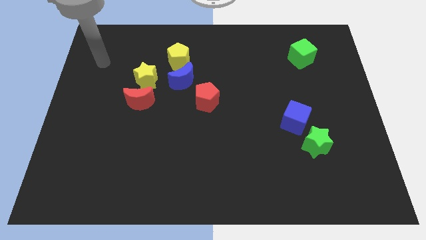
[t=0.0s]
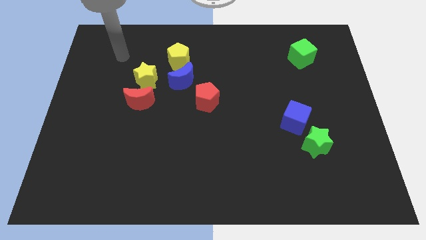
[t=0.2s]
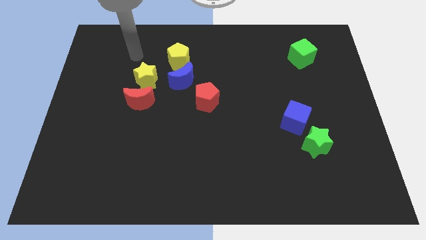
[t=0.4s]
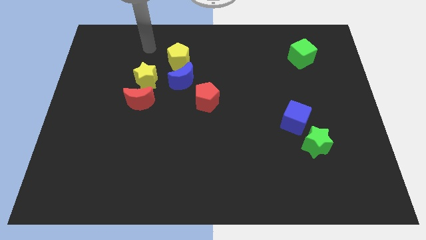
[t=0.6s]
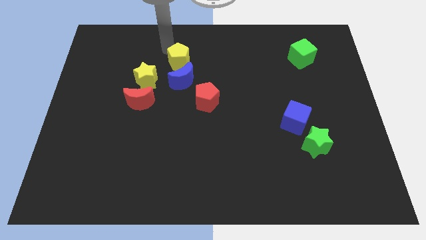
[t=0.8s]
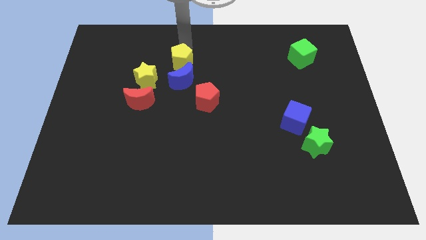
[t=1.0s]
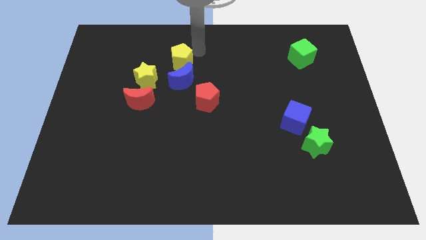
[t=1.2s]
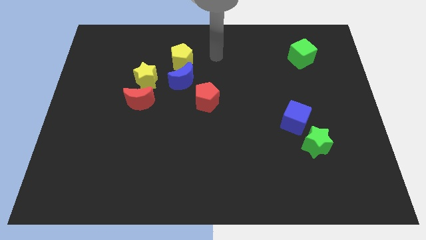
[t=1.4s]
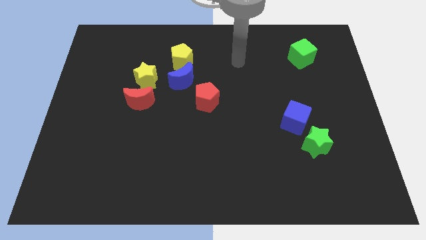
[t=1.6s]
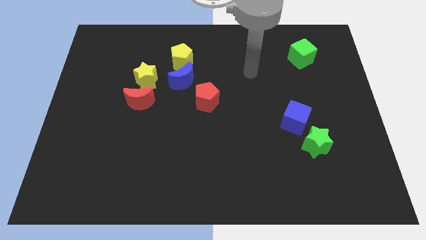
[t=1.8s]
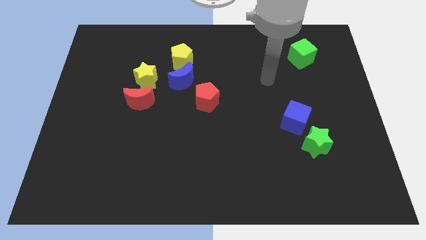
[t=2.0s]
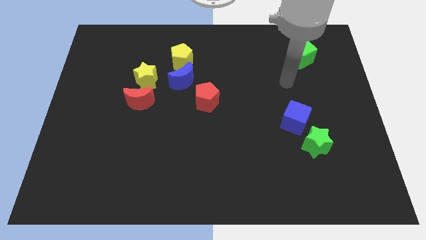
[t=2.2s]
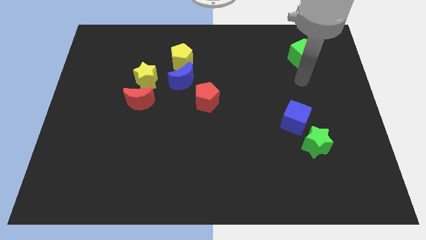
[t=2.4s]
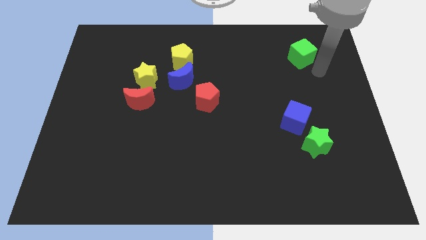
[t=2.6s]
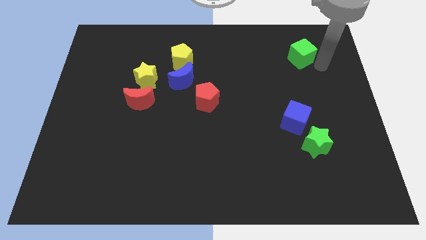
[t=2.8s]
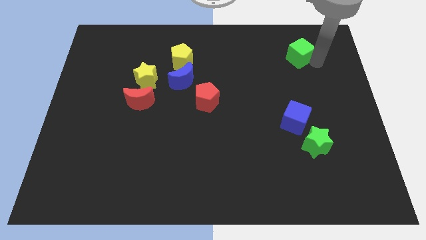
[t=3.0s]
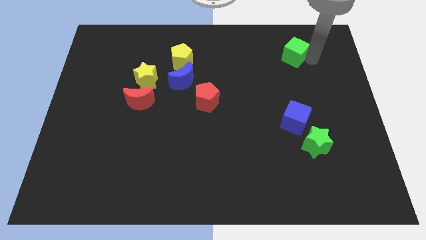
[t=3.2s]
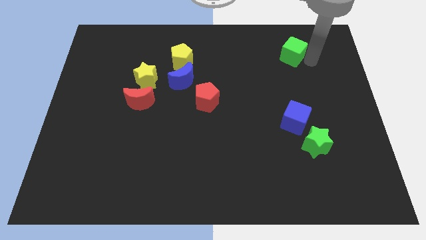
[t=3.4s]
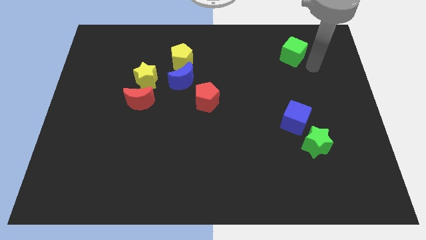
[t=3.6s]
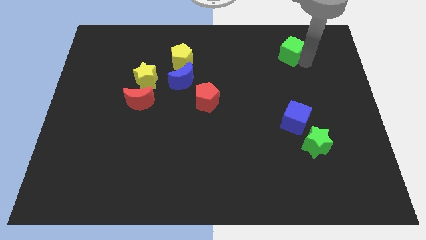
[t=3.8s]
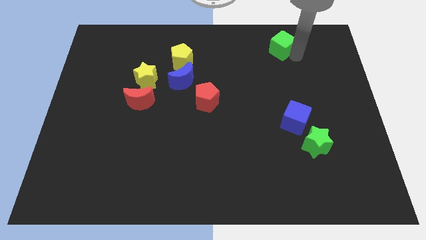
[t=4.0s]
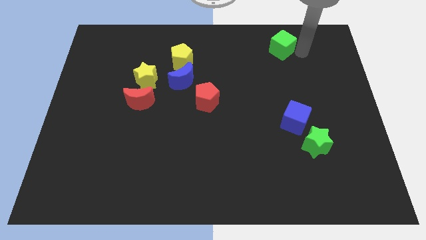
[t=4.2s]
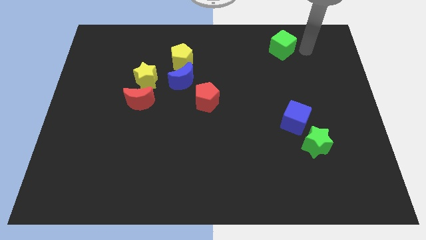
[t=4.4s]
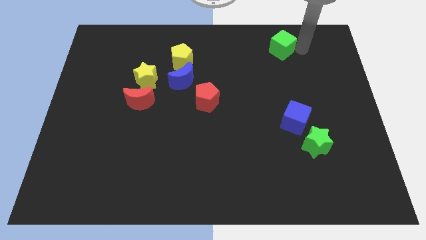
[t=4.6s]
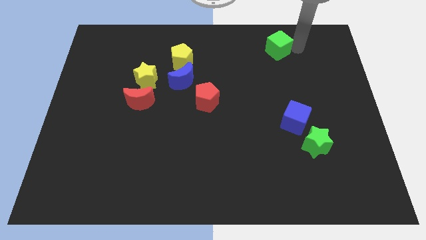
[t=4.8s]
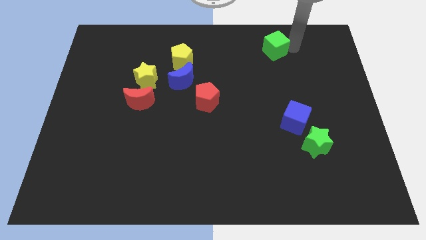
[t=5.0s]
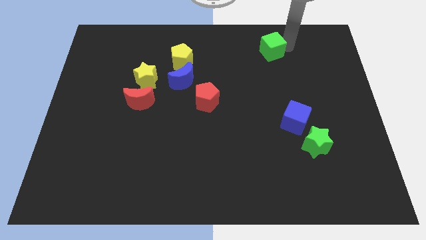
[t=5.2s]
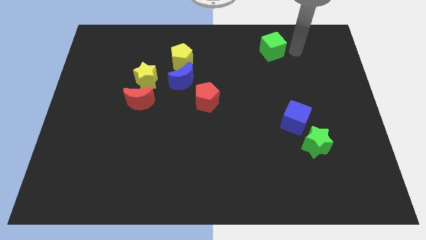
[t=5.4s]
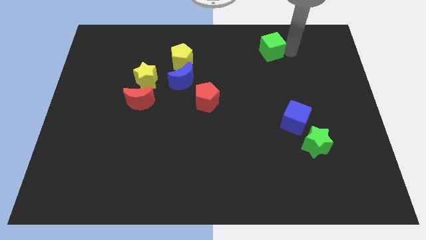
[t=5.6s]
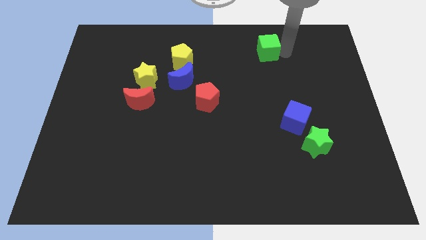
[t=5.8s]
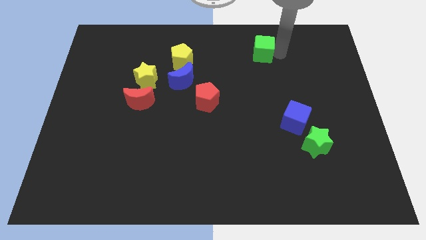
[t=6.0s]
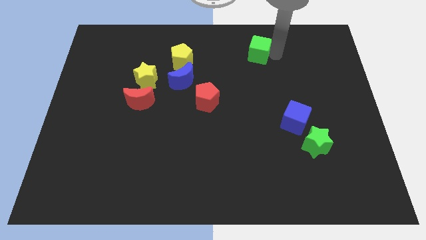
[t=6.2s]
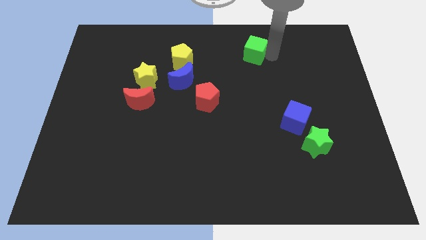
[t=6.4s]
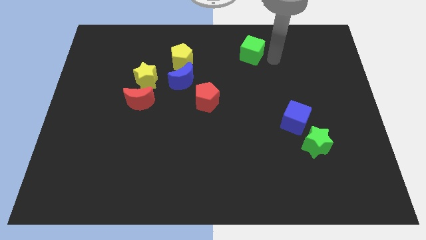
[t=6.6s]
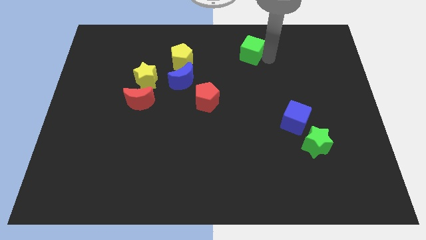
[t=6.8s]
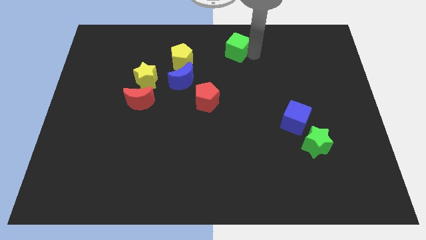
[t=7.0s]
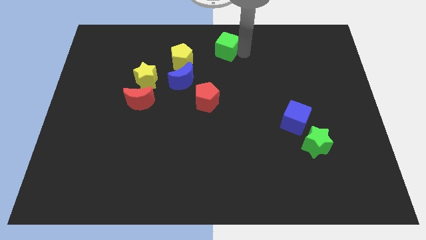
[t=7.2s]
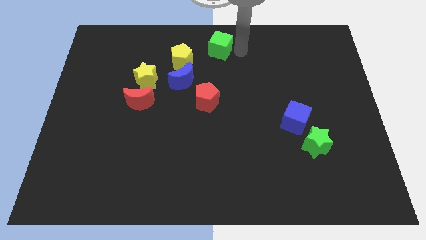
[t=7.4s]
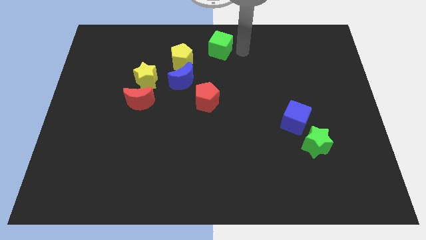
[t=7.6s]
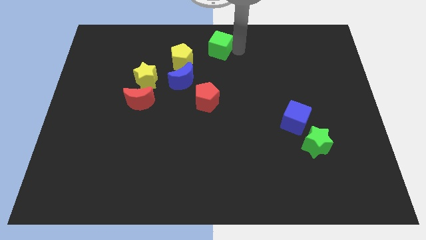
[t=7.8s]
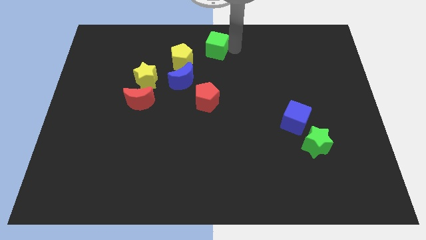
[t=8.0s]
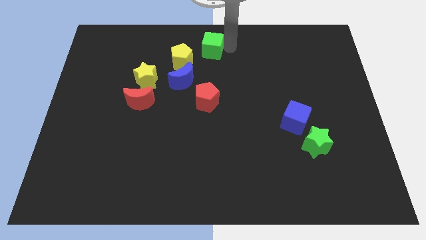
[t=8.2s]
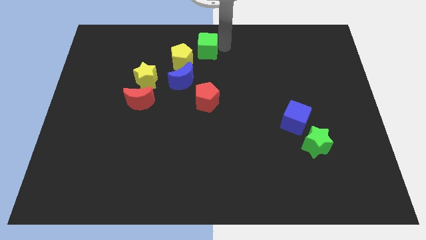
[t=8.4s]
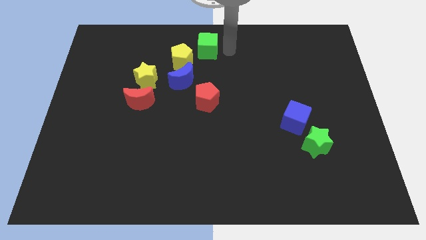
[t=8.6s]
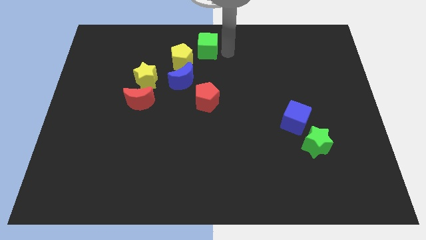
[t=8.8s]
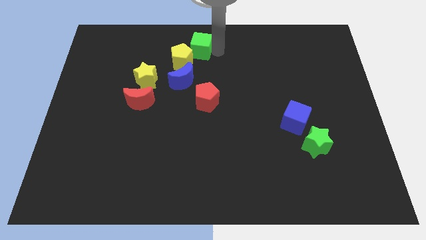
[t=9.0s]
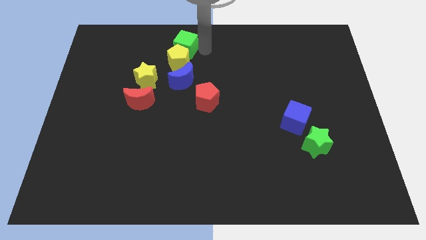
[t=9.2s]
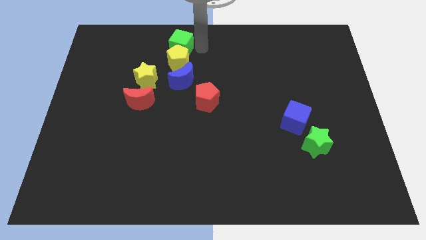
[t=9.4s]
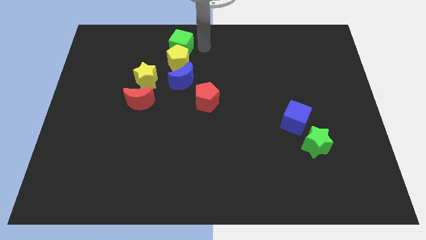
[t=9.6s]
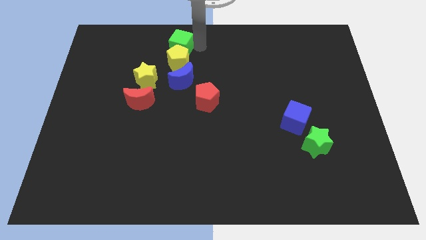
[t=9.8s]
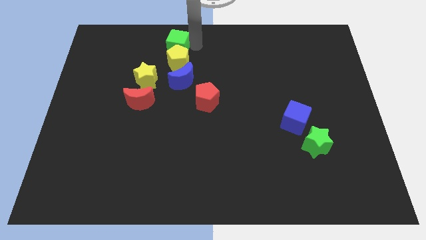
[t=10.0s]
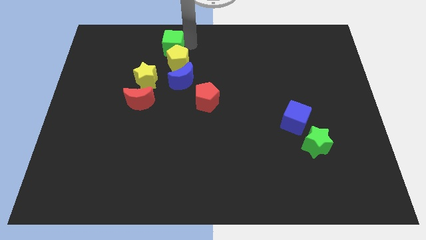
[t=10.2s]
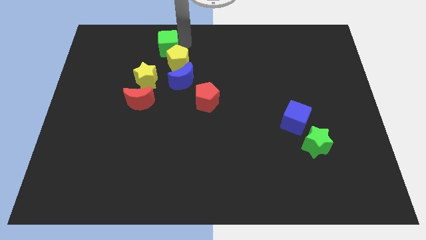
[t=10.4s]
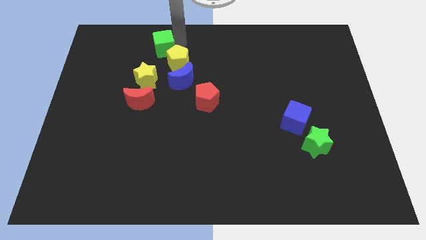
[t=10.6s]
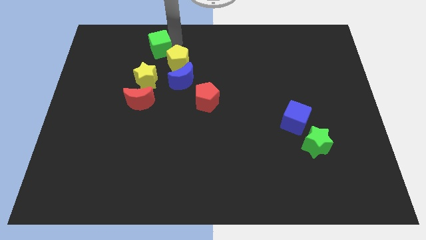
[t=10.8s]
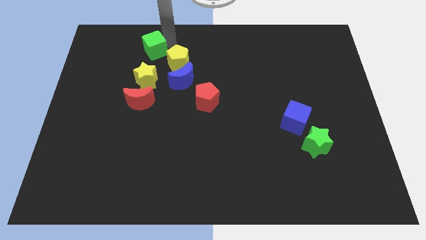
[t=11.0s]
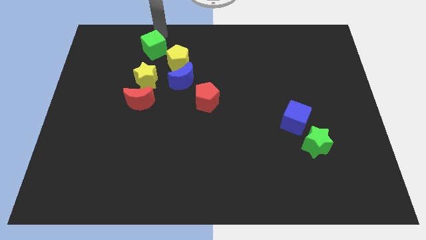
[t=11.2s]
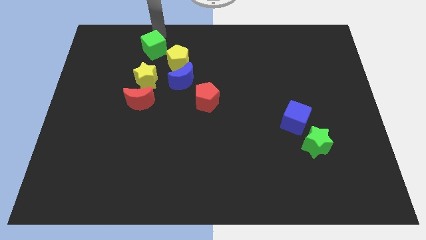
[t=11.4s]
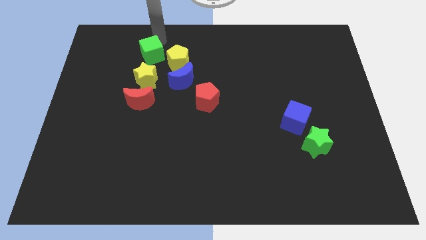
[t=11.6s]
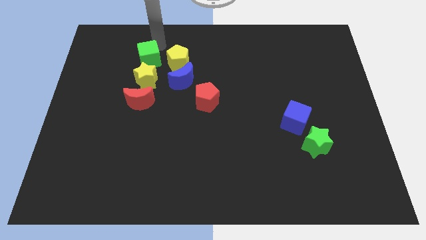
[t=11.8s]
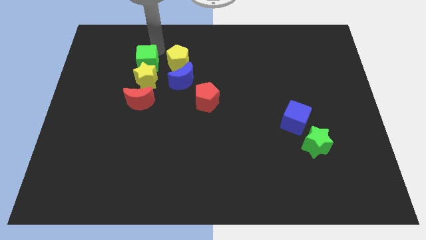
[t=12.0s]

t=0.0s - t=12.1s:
put the green cube close to the yellow star
